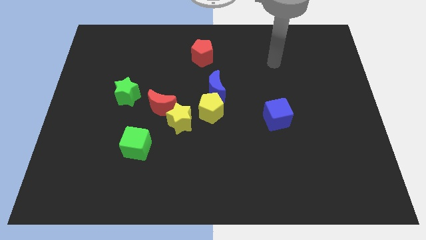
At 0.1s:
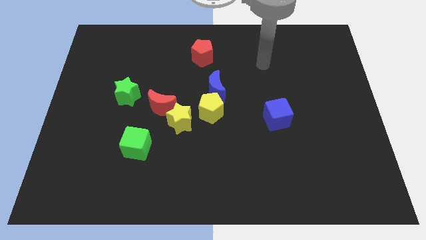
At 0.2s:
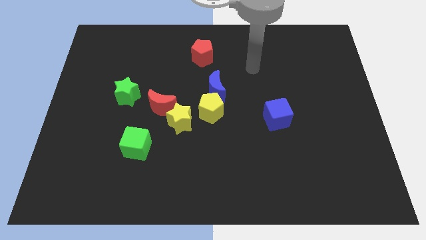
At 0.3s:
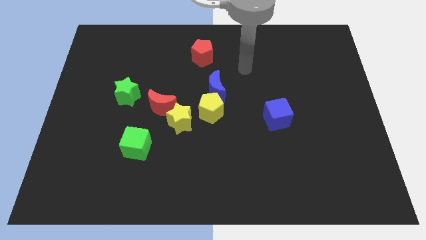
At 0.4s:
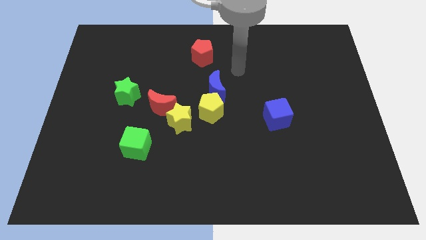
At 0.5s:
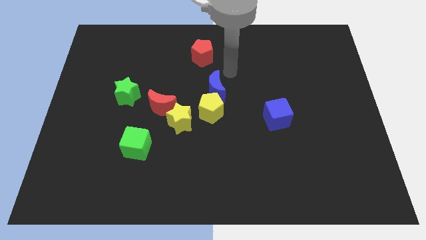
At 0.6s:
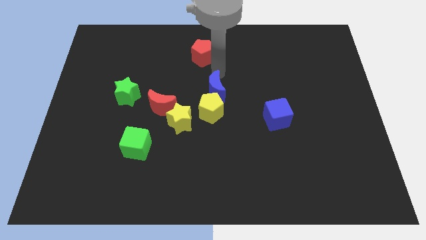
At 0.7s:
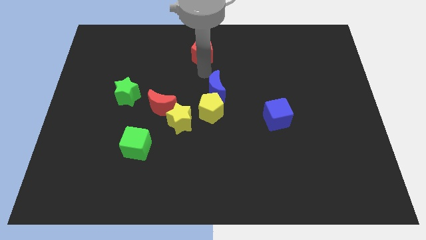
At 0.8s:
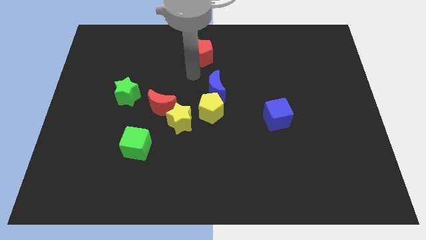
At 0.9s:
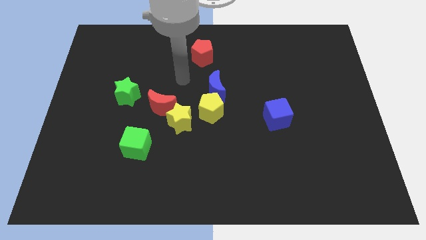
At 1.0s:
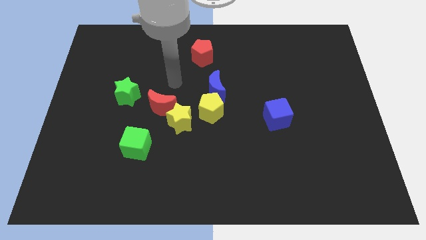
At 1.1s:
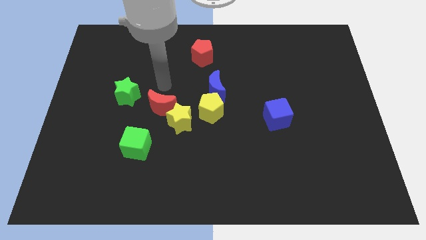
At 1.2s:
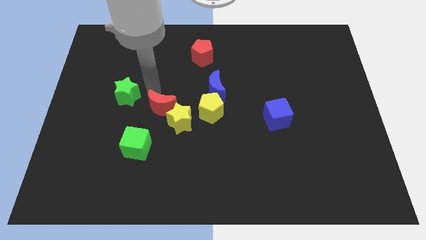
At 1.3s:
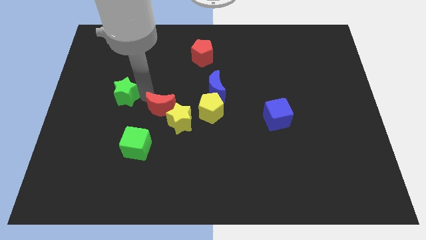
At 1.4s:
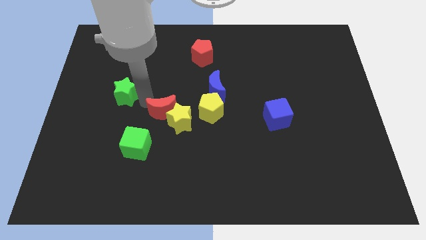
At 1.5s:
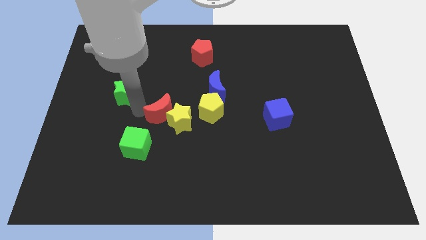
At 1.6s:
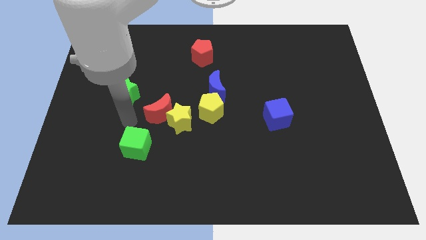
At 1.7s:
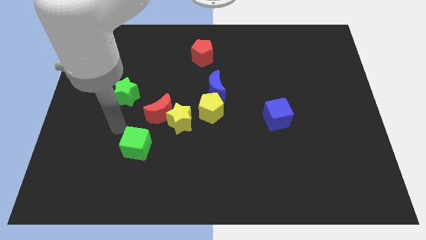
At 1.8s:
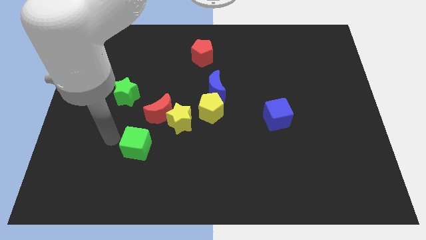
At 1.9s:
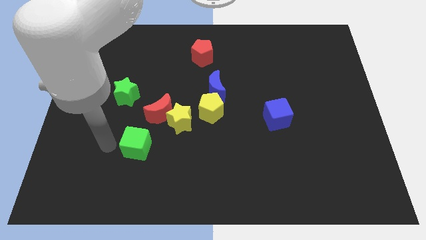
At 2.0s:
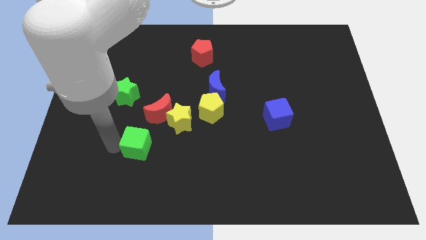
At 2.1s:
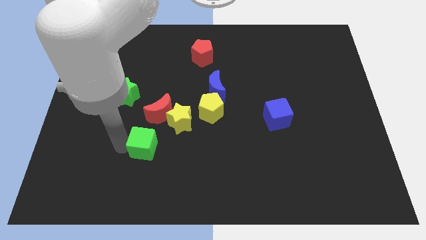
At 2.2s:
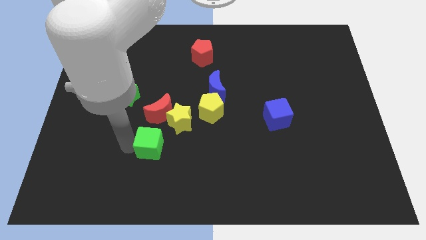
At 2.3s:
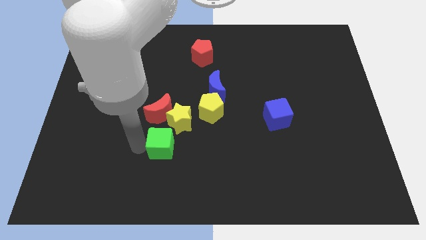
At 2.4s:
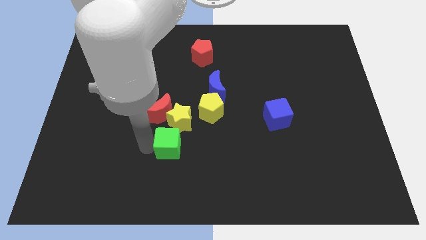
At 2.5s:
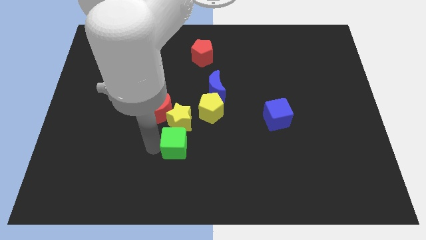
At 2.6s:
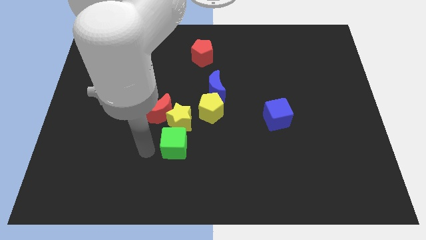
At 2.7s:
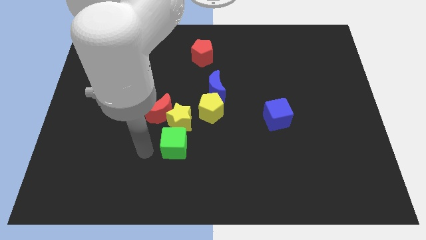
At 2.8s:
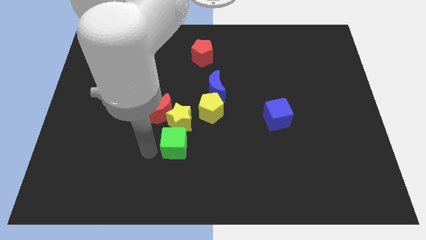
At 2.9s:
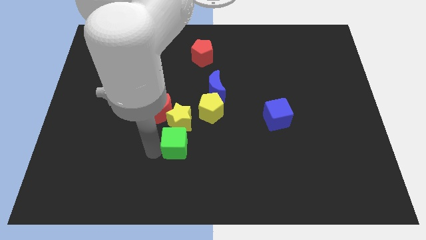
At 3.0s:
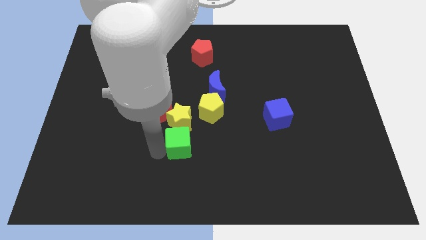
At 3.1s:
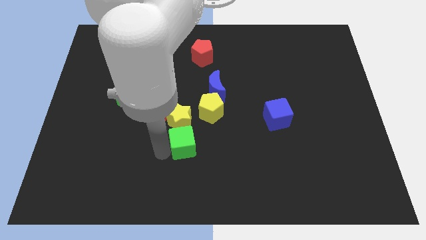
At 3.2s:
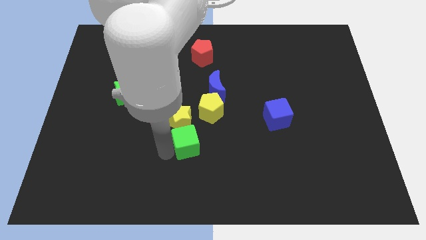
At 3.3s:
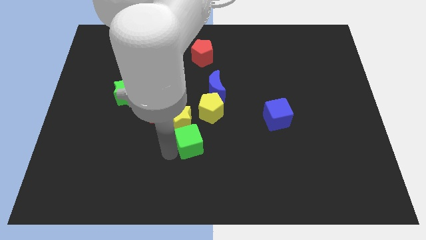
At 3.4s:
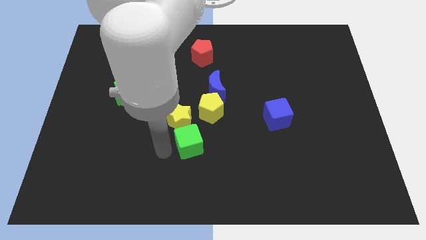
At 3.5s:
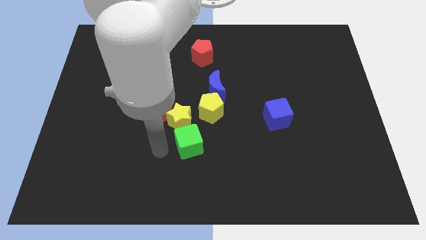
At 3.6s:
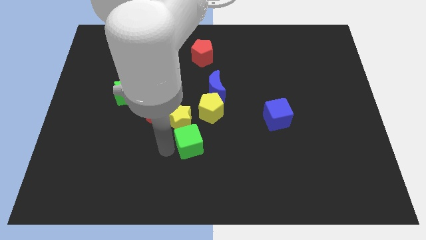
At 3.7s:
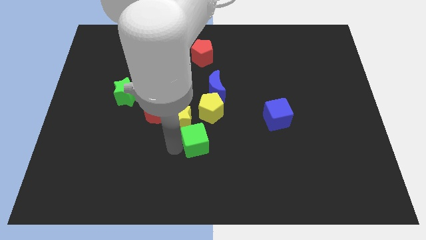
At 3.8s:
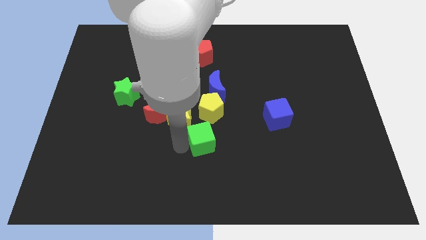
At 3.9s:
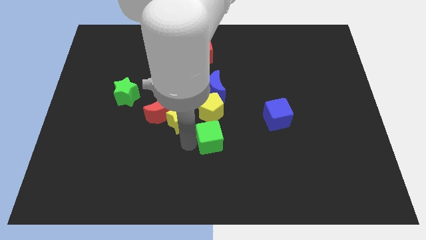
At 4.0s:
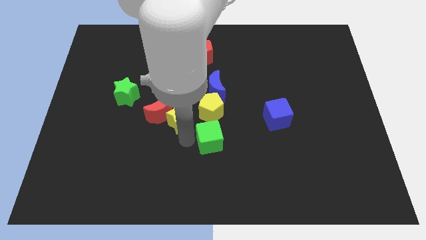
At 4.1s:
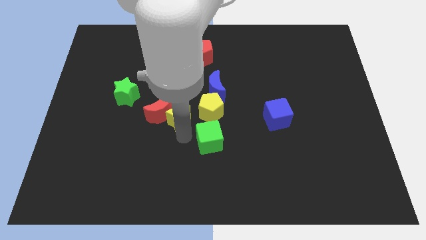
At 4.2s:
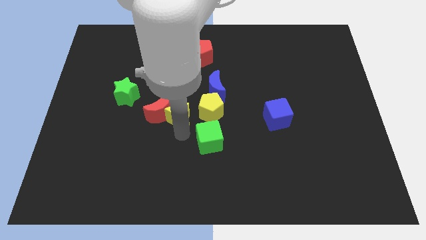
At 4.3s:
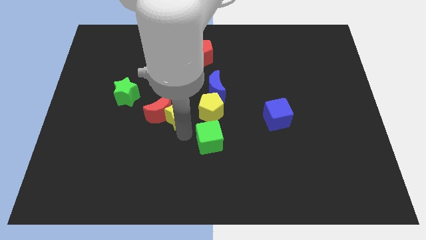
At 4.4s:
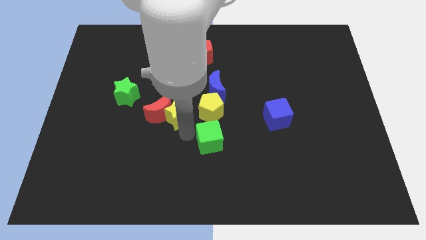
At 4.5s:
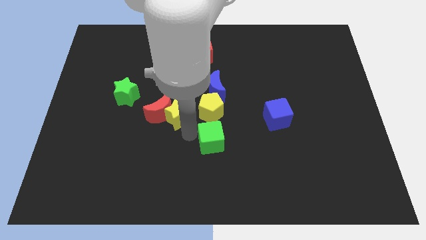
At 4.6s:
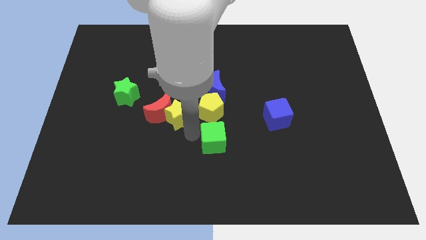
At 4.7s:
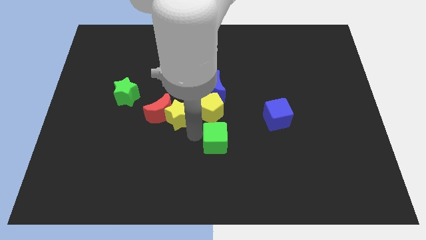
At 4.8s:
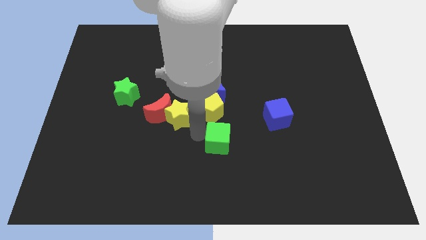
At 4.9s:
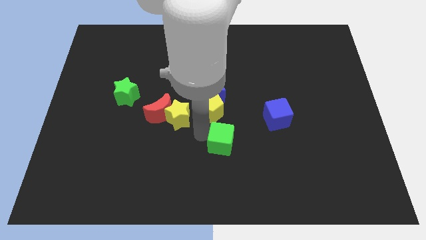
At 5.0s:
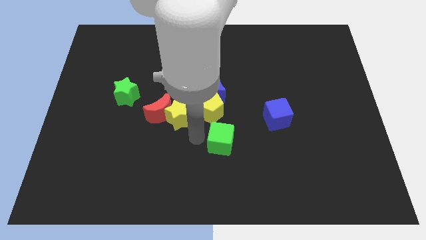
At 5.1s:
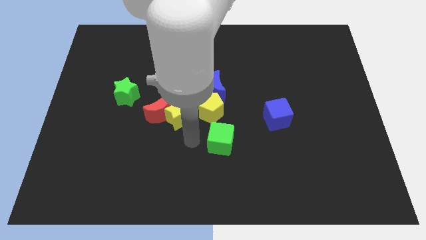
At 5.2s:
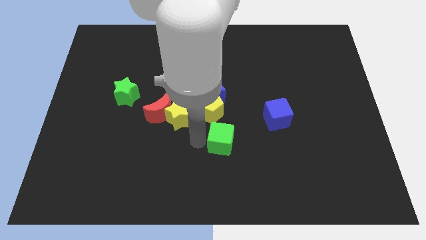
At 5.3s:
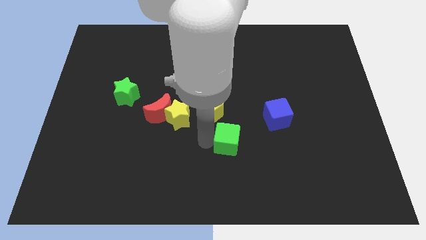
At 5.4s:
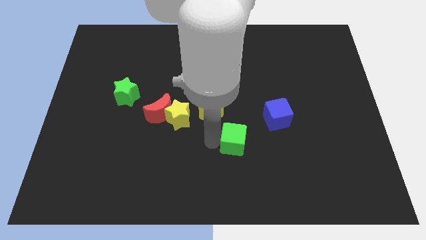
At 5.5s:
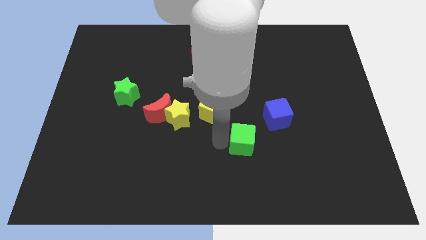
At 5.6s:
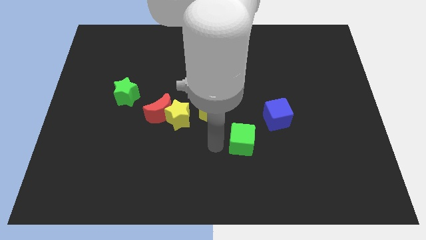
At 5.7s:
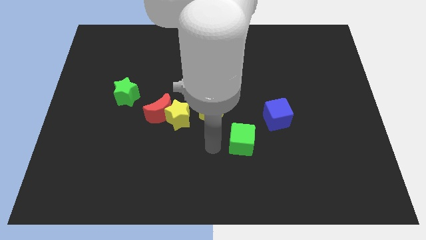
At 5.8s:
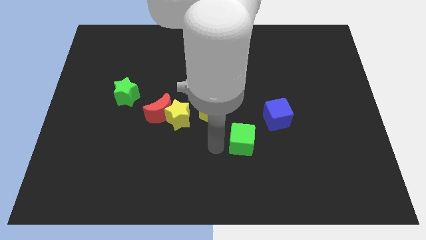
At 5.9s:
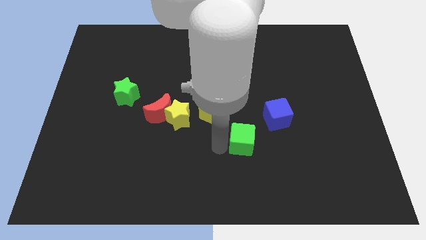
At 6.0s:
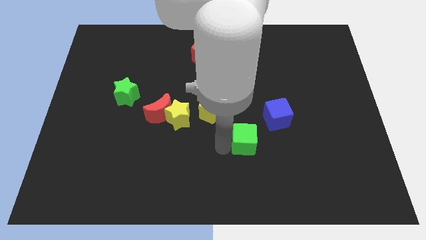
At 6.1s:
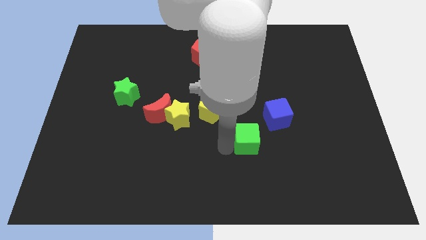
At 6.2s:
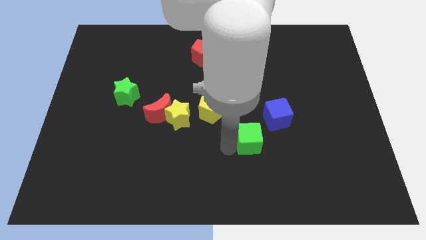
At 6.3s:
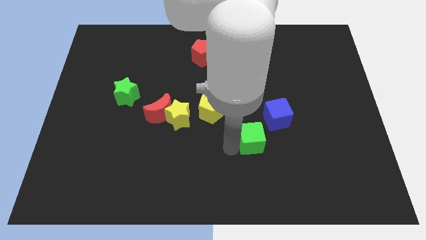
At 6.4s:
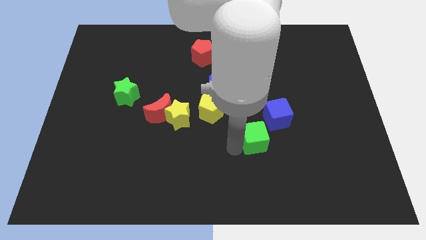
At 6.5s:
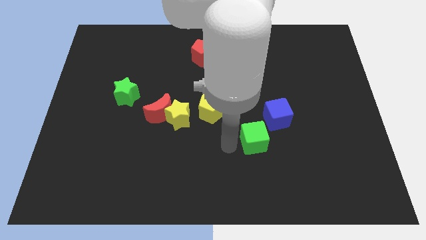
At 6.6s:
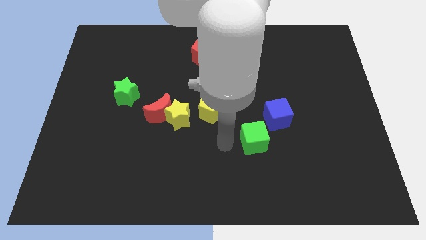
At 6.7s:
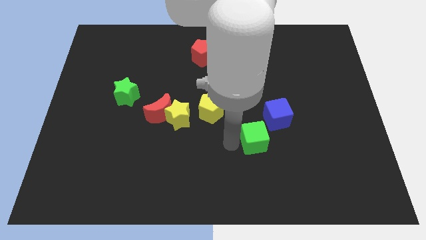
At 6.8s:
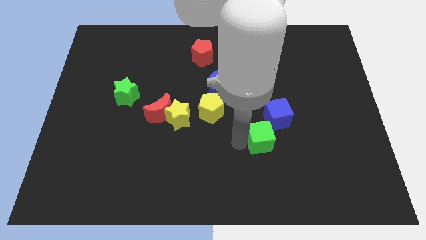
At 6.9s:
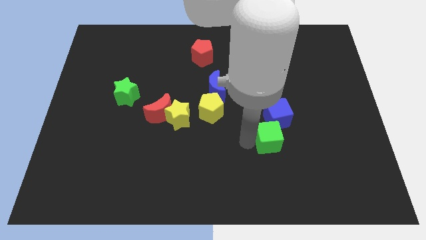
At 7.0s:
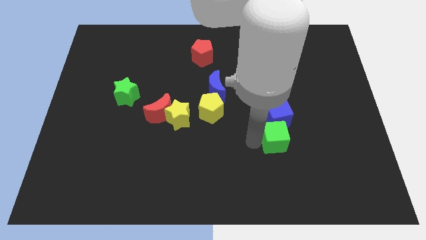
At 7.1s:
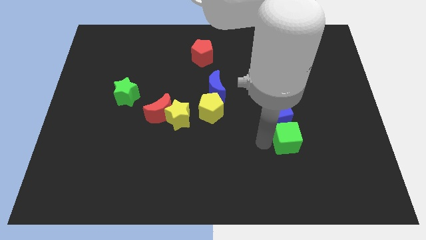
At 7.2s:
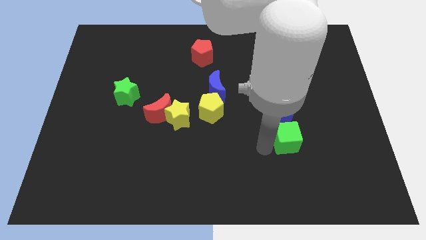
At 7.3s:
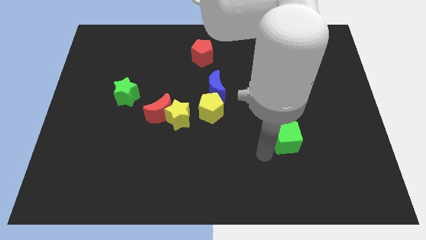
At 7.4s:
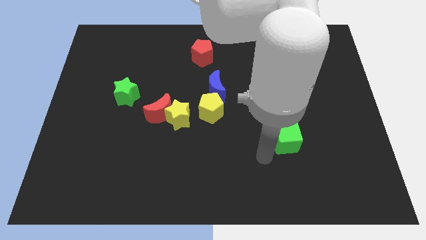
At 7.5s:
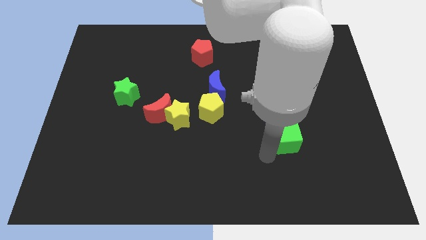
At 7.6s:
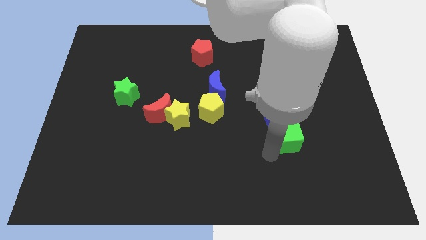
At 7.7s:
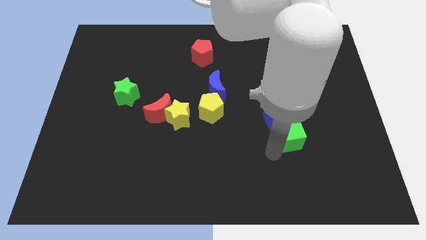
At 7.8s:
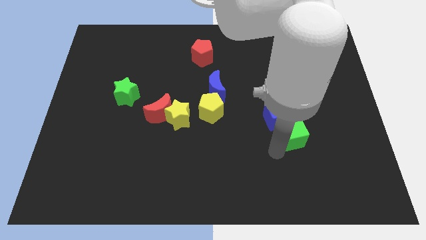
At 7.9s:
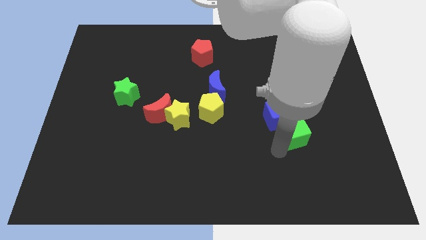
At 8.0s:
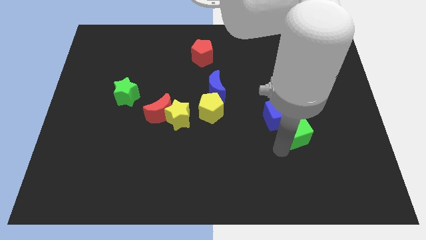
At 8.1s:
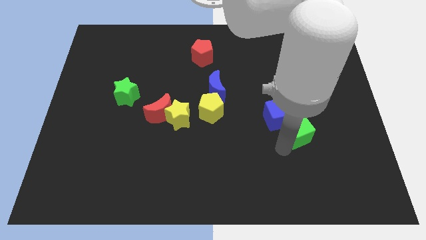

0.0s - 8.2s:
push the green cube just right of the blue cube

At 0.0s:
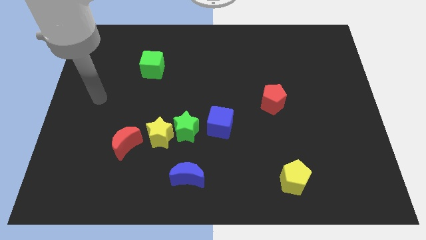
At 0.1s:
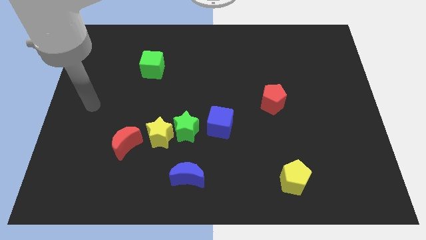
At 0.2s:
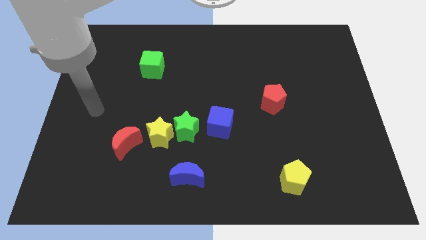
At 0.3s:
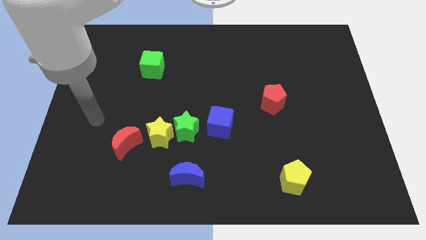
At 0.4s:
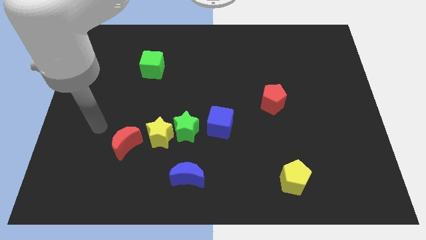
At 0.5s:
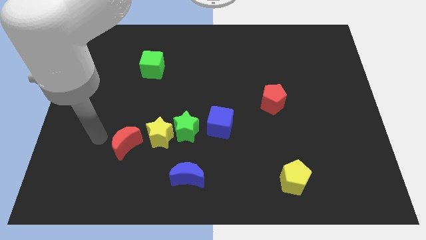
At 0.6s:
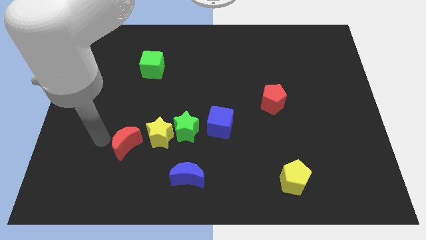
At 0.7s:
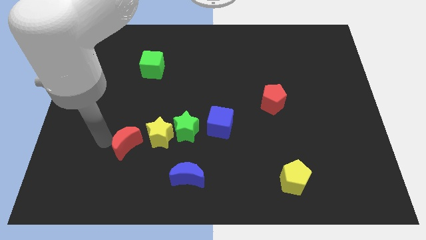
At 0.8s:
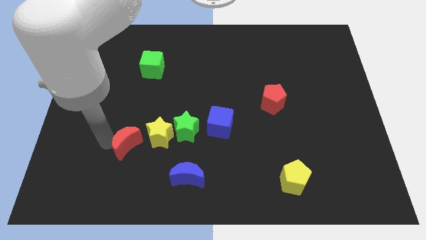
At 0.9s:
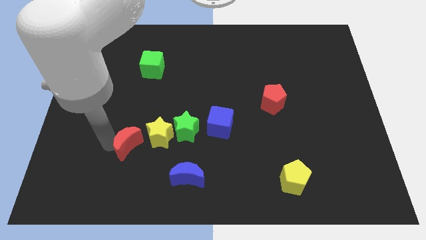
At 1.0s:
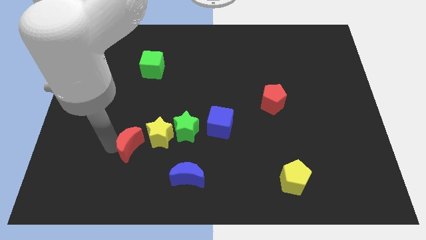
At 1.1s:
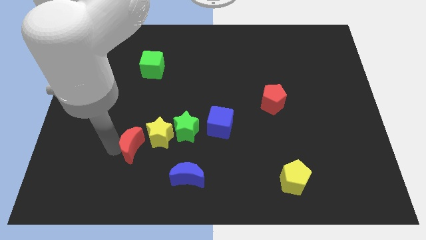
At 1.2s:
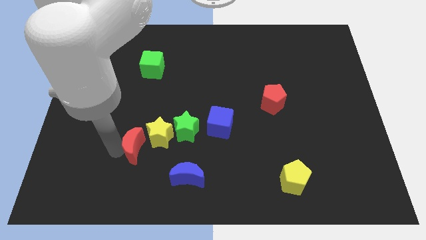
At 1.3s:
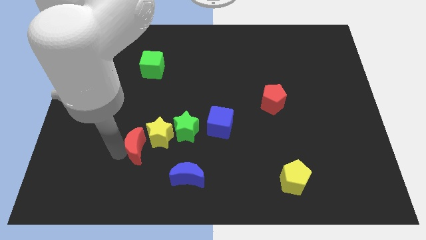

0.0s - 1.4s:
move the red moon to the bottom left of the green star
